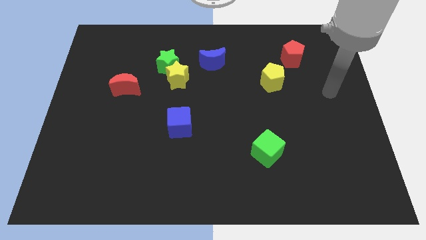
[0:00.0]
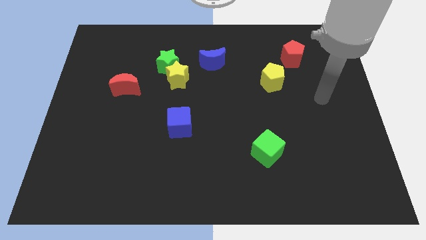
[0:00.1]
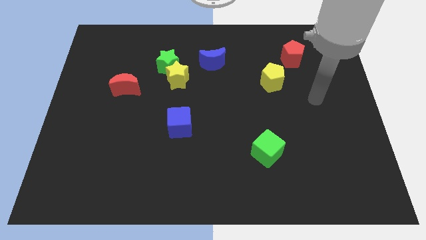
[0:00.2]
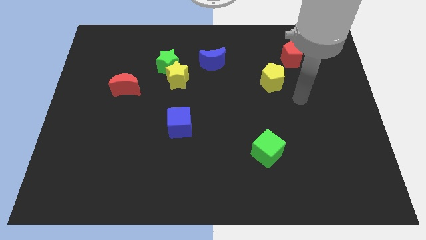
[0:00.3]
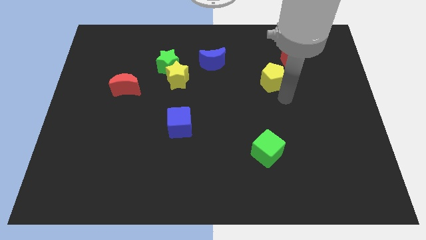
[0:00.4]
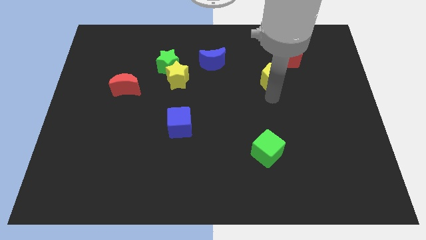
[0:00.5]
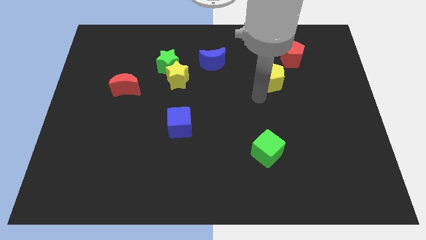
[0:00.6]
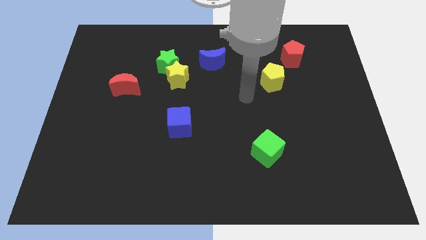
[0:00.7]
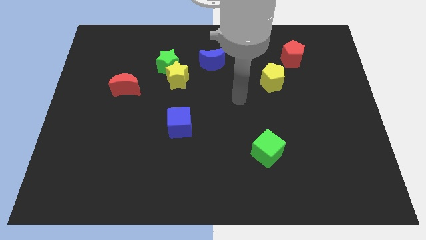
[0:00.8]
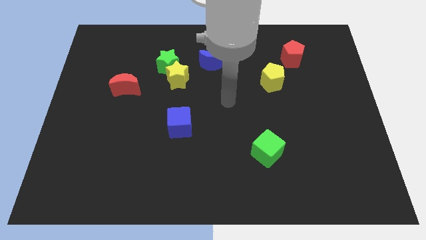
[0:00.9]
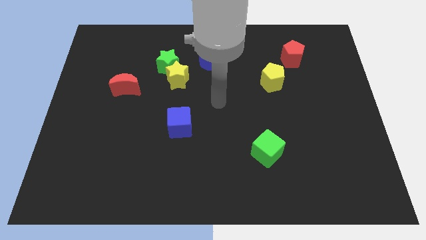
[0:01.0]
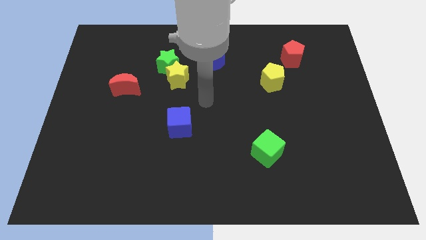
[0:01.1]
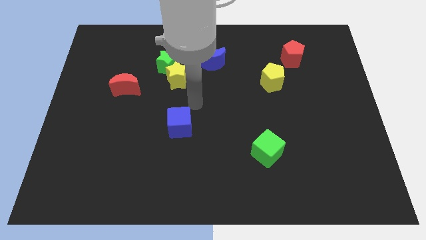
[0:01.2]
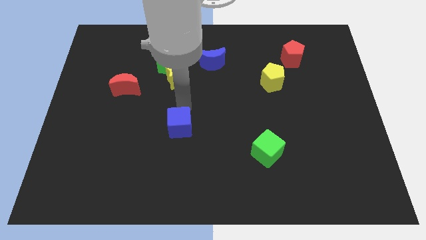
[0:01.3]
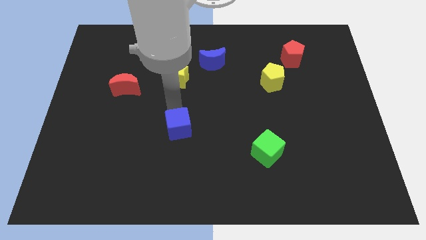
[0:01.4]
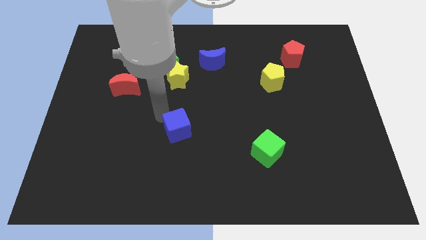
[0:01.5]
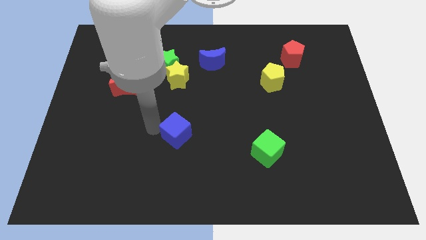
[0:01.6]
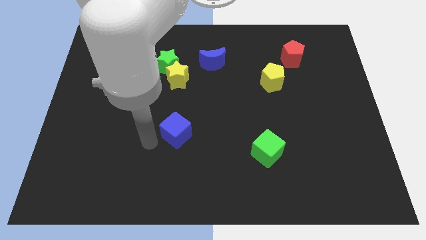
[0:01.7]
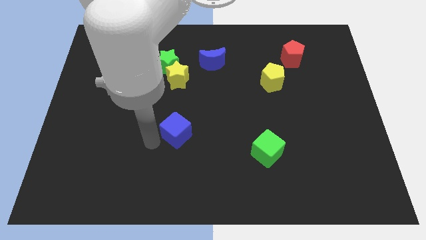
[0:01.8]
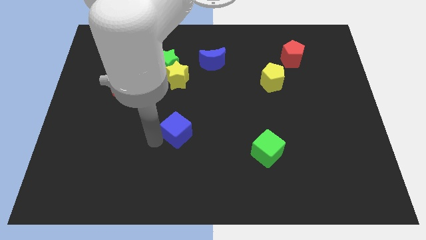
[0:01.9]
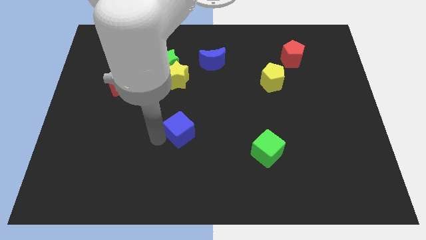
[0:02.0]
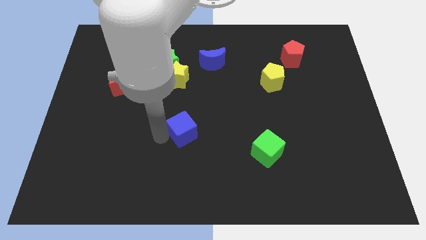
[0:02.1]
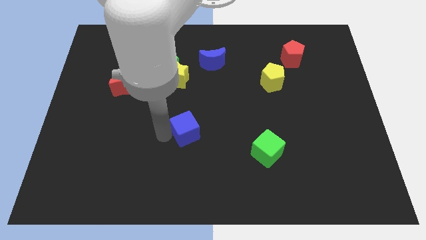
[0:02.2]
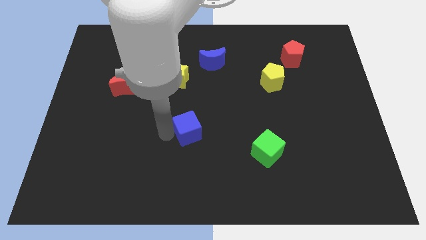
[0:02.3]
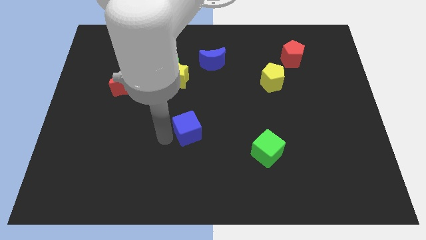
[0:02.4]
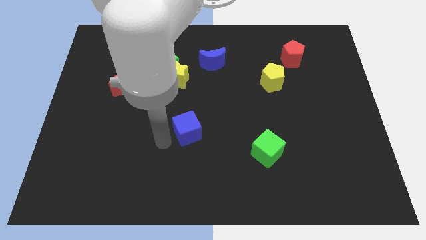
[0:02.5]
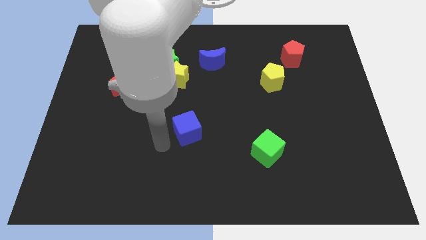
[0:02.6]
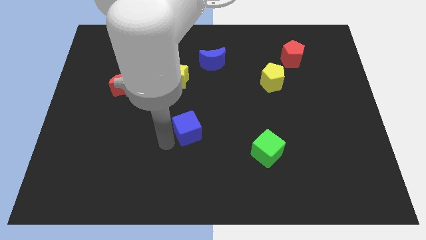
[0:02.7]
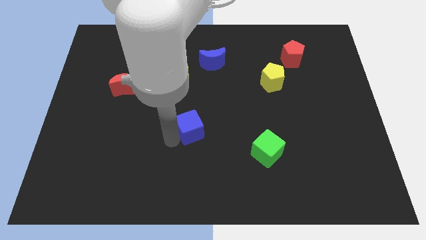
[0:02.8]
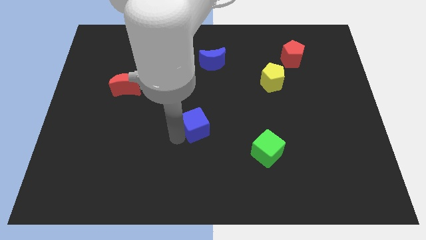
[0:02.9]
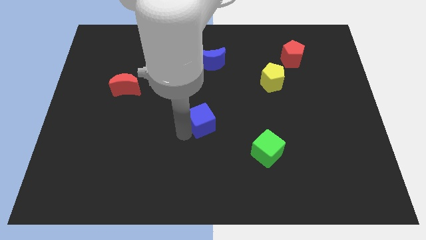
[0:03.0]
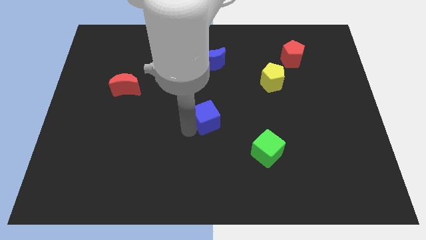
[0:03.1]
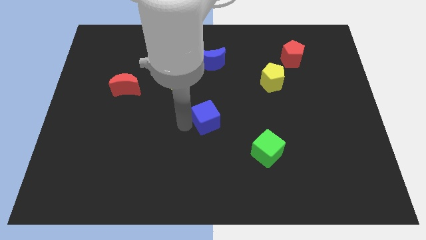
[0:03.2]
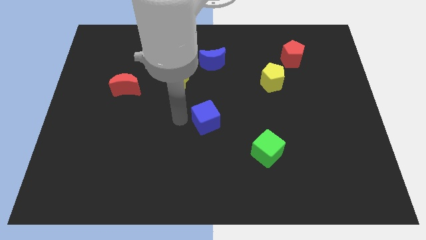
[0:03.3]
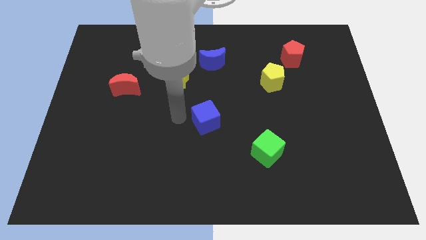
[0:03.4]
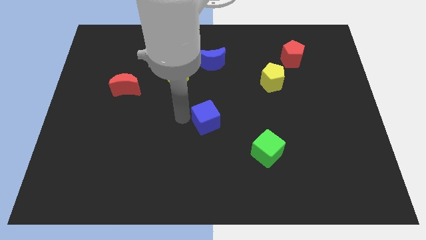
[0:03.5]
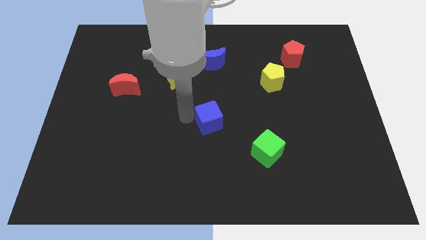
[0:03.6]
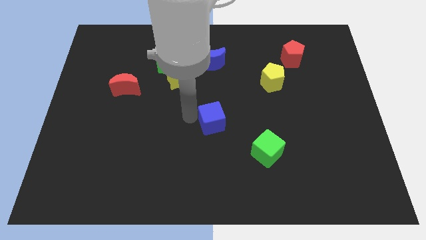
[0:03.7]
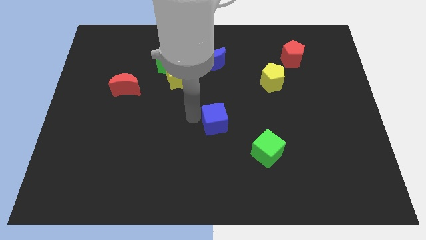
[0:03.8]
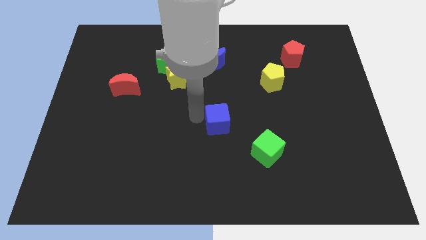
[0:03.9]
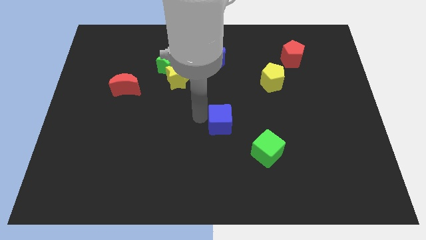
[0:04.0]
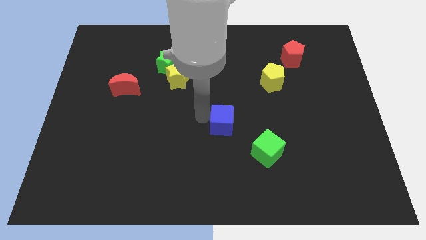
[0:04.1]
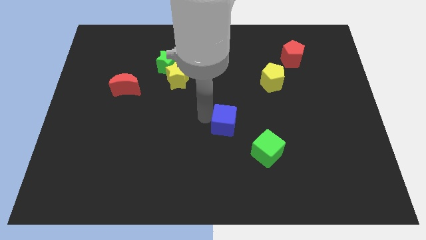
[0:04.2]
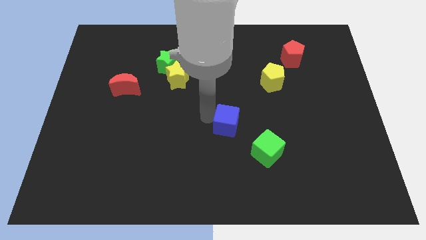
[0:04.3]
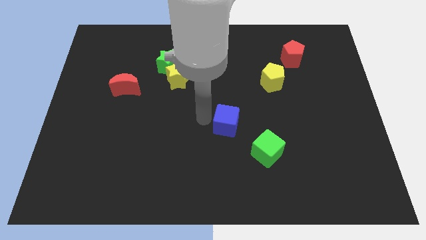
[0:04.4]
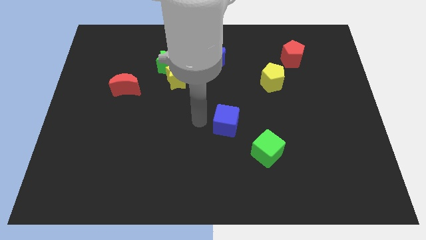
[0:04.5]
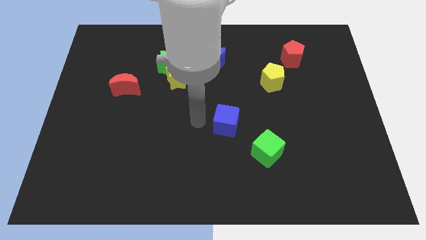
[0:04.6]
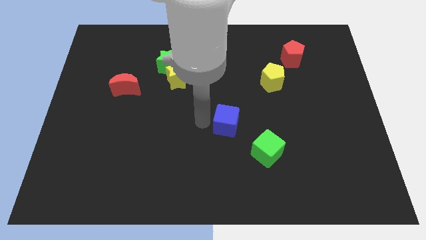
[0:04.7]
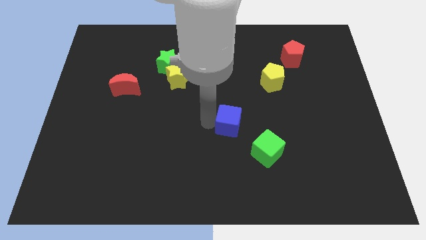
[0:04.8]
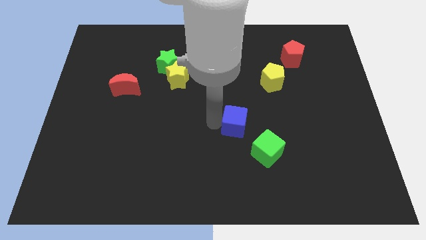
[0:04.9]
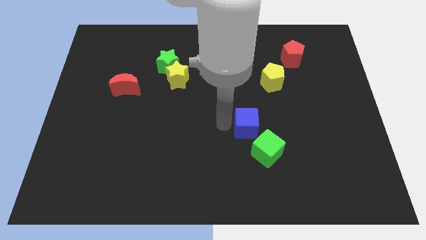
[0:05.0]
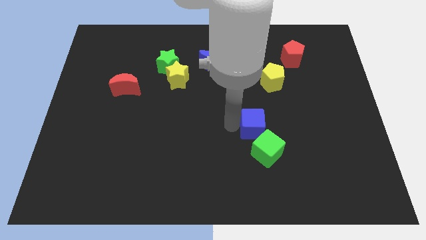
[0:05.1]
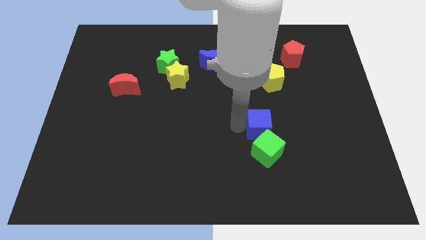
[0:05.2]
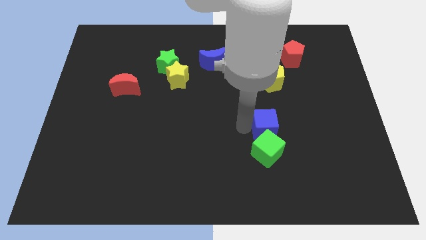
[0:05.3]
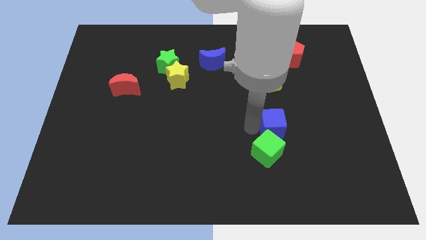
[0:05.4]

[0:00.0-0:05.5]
move the blue cube to the right

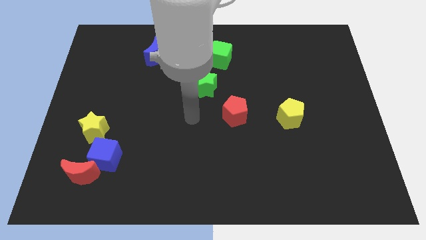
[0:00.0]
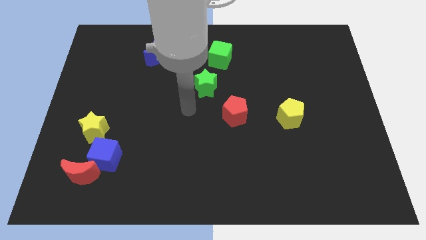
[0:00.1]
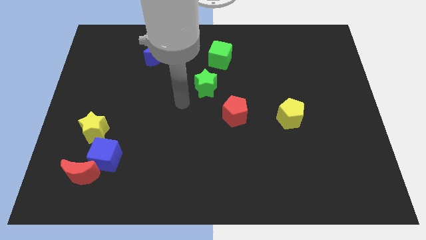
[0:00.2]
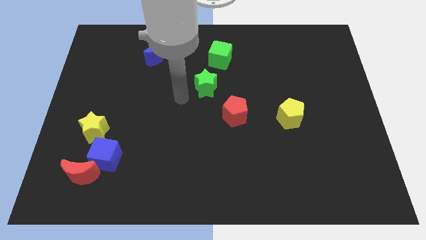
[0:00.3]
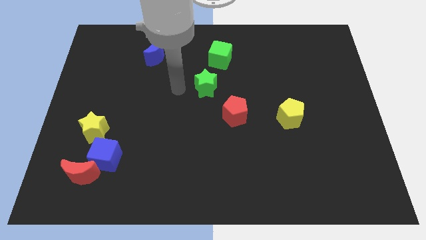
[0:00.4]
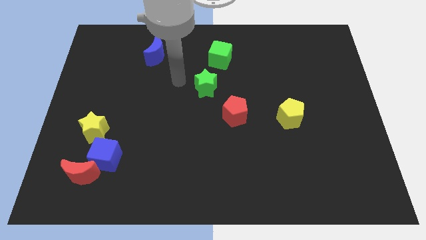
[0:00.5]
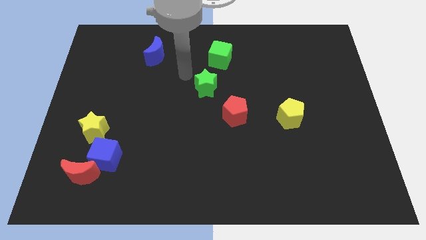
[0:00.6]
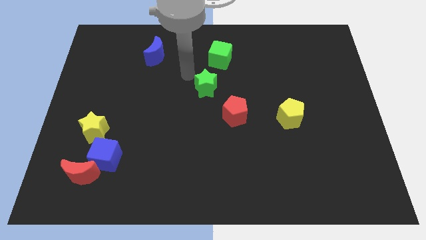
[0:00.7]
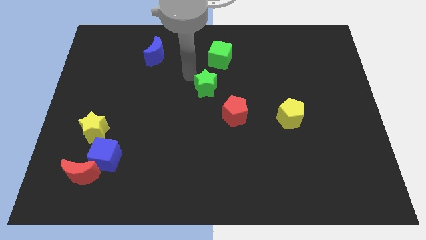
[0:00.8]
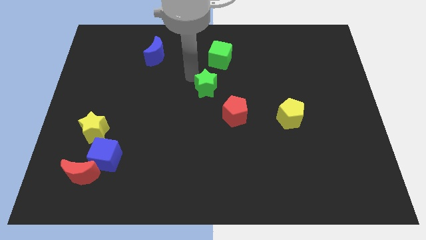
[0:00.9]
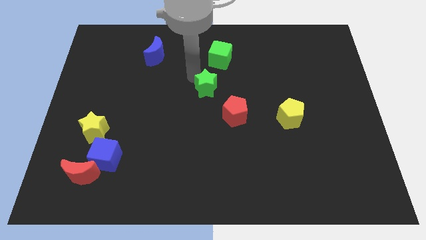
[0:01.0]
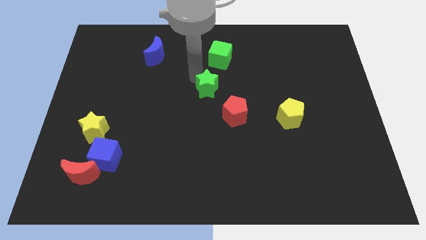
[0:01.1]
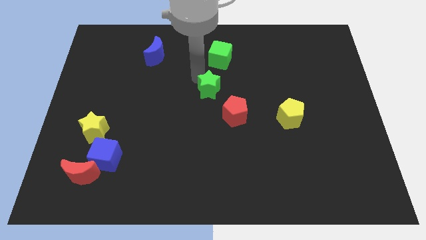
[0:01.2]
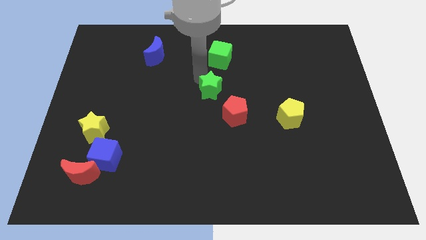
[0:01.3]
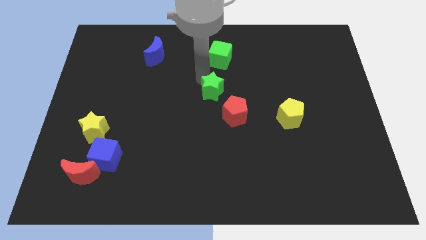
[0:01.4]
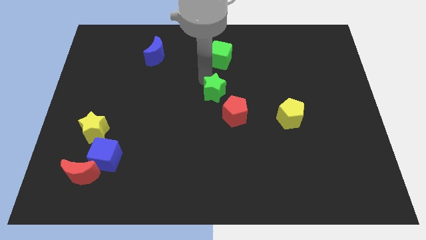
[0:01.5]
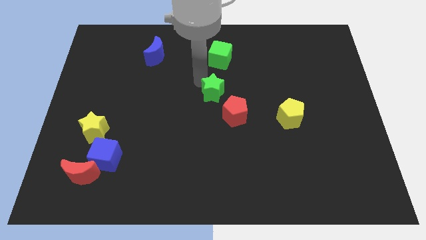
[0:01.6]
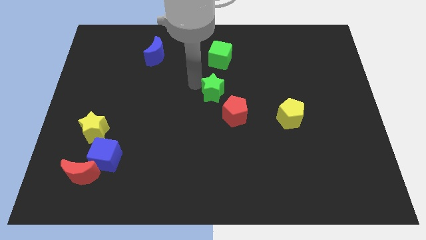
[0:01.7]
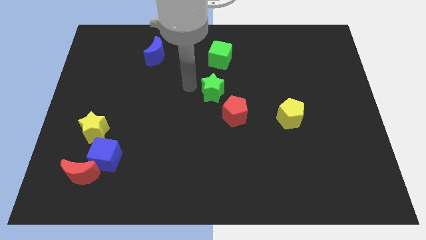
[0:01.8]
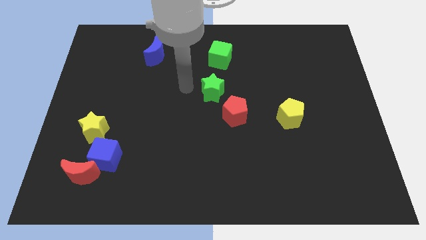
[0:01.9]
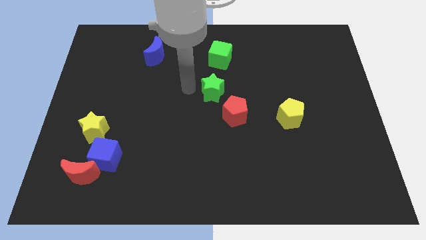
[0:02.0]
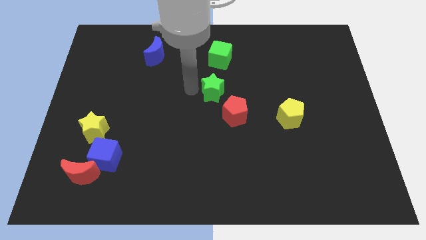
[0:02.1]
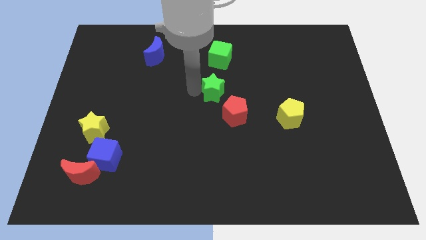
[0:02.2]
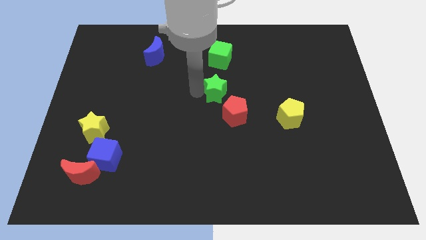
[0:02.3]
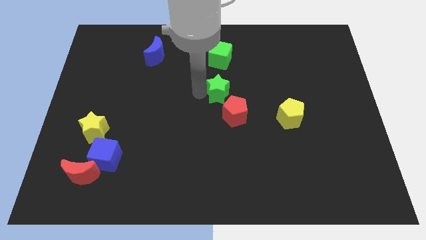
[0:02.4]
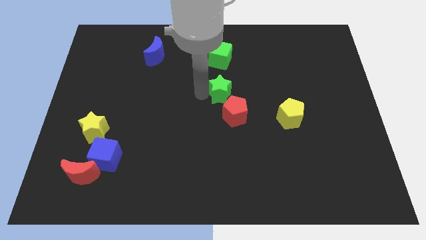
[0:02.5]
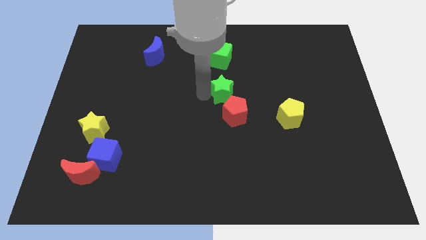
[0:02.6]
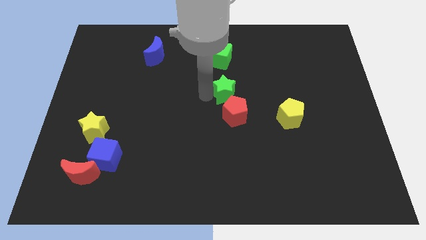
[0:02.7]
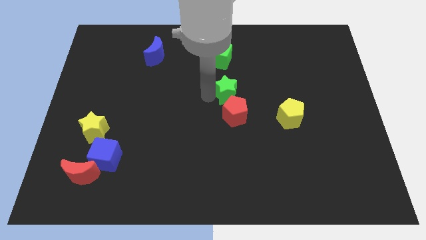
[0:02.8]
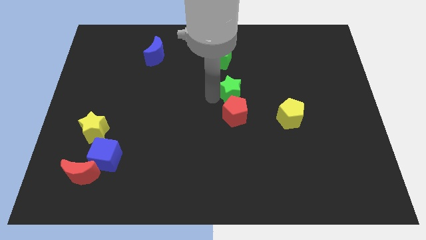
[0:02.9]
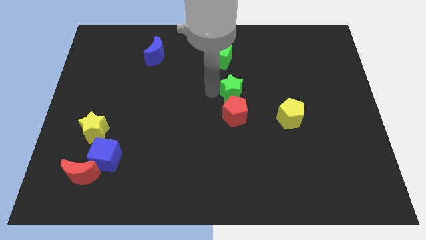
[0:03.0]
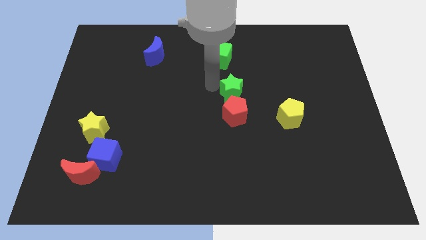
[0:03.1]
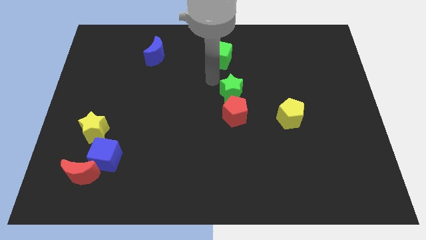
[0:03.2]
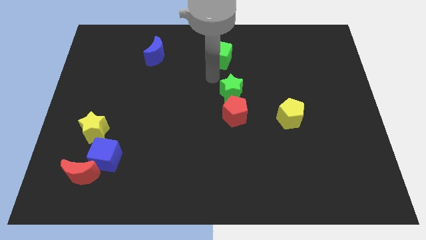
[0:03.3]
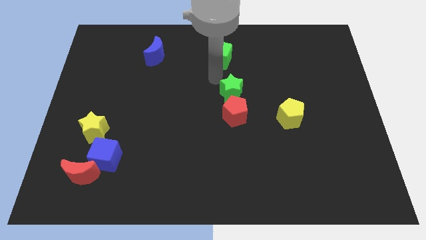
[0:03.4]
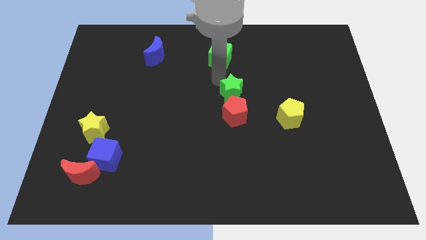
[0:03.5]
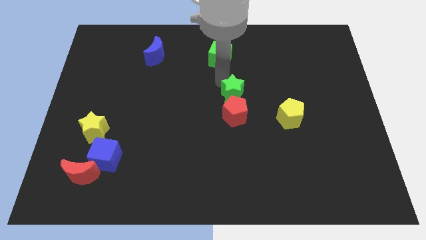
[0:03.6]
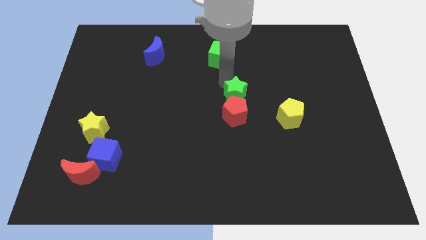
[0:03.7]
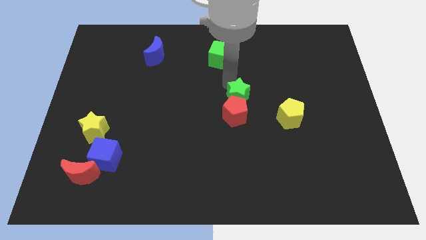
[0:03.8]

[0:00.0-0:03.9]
move the green star down and to the right diagonally a little
